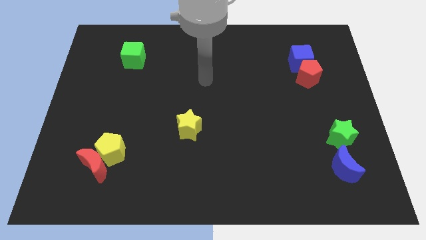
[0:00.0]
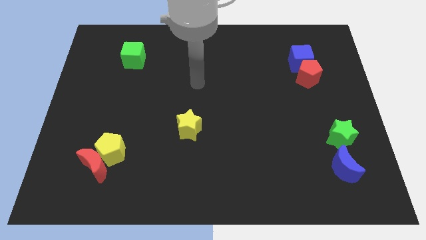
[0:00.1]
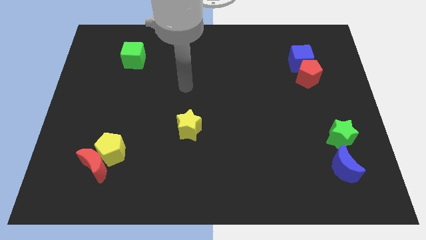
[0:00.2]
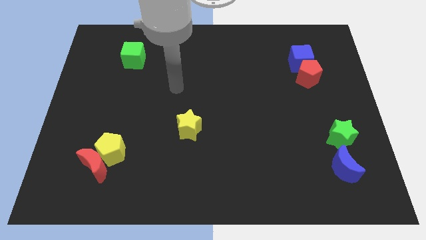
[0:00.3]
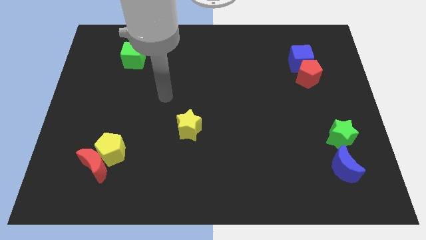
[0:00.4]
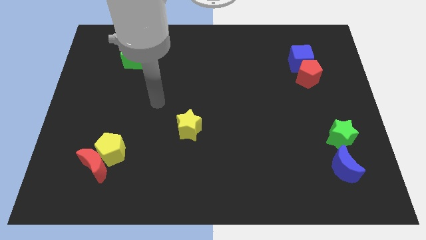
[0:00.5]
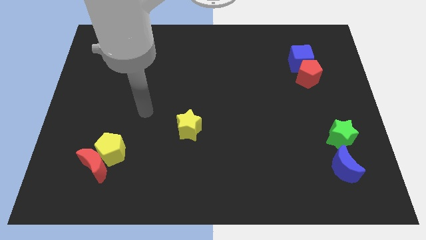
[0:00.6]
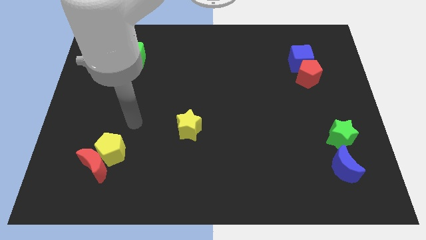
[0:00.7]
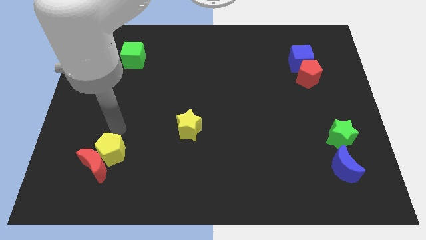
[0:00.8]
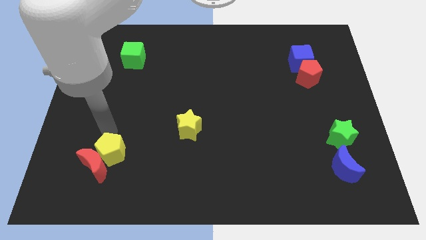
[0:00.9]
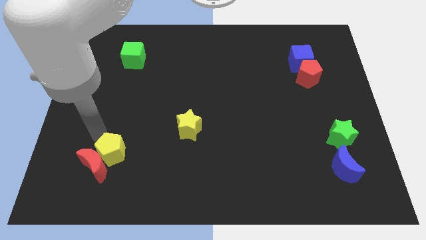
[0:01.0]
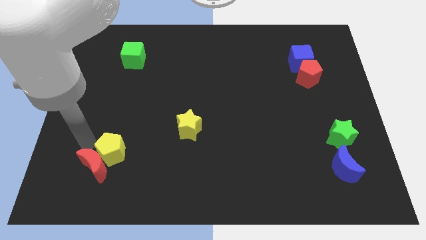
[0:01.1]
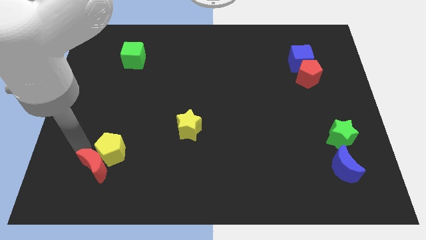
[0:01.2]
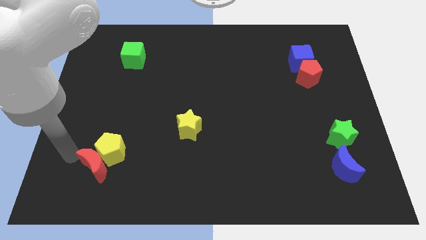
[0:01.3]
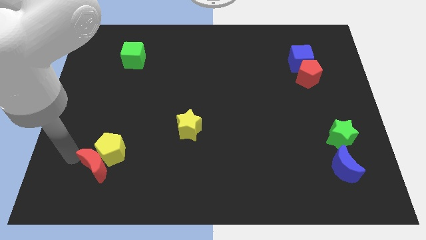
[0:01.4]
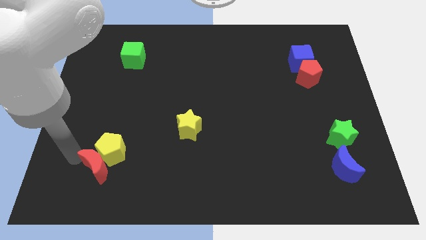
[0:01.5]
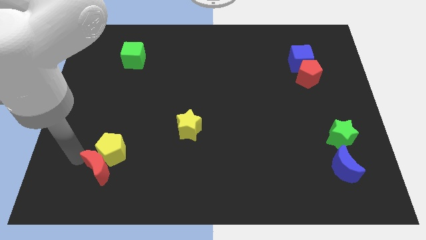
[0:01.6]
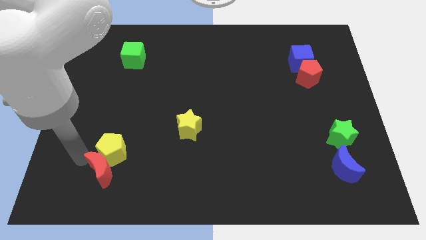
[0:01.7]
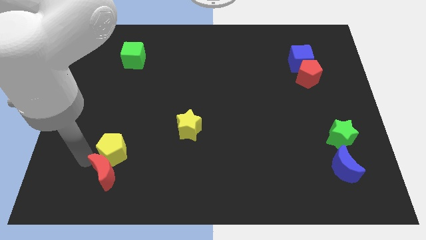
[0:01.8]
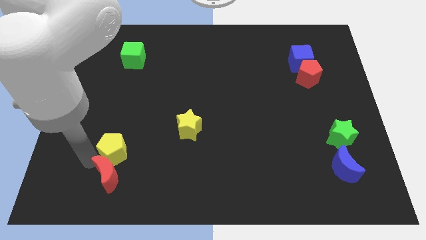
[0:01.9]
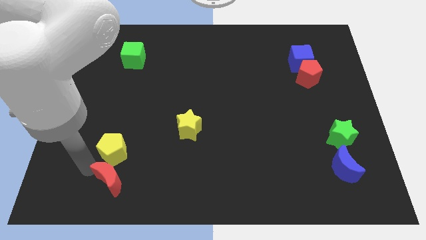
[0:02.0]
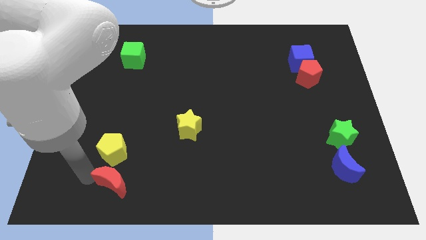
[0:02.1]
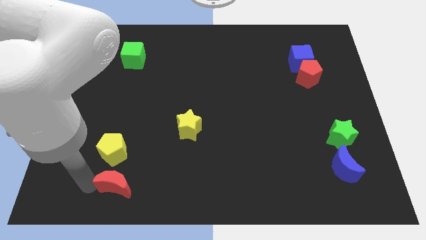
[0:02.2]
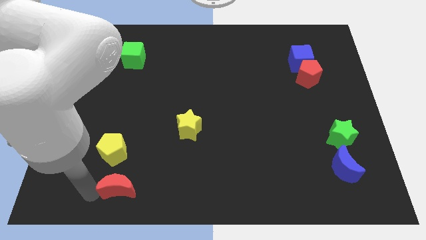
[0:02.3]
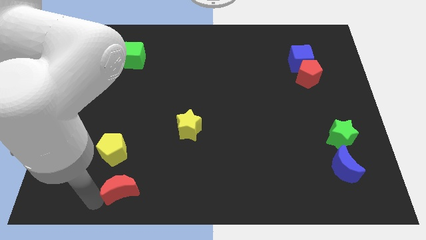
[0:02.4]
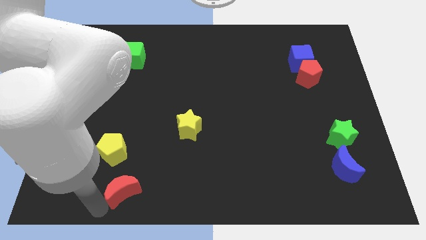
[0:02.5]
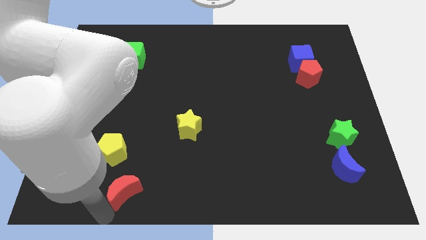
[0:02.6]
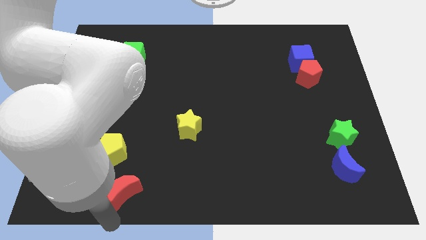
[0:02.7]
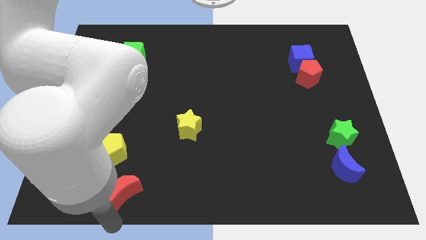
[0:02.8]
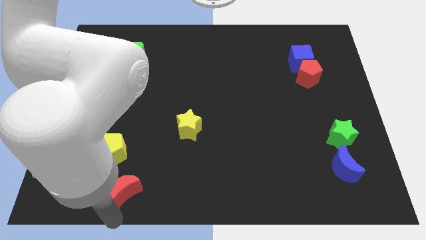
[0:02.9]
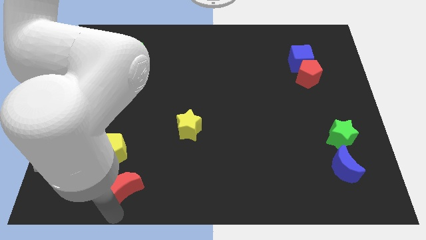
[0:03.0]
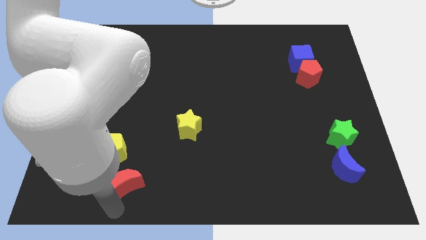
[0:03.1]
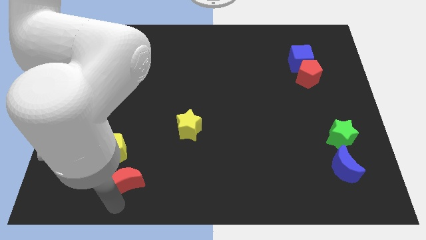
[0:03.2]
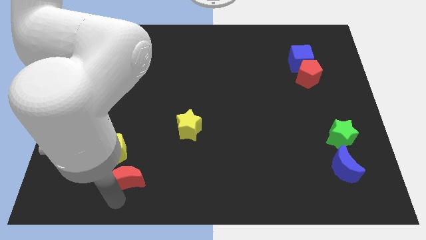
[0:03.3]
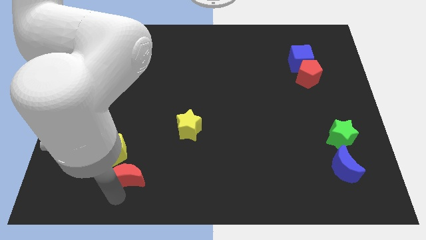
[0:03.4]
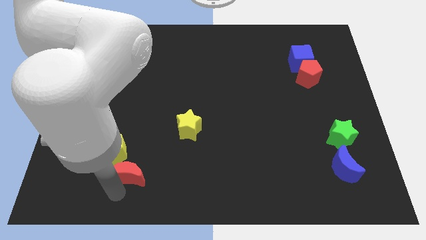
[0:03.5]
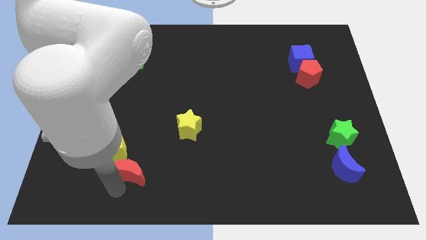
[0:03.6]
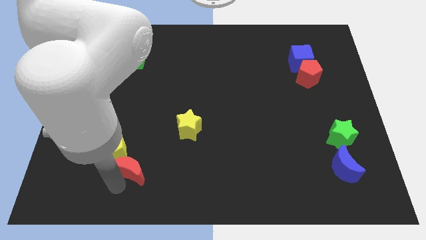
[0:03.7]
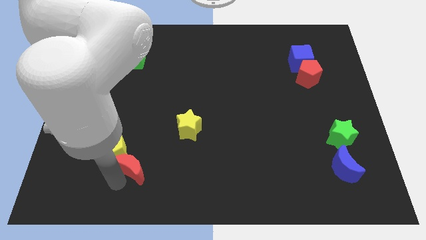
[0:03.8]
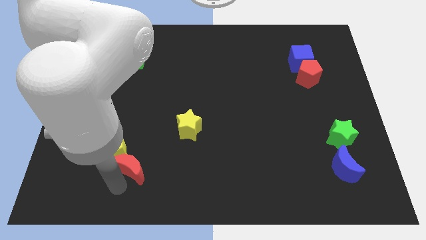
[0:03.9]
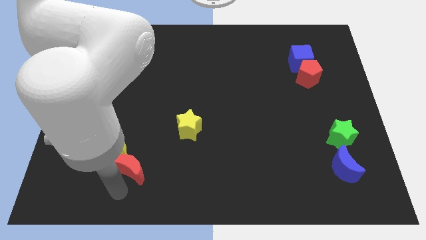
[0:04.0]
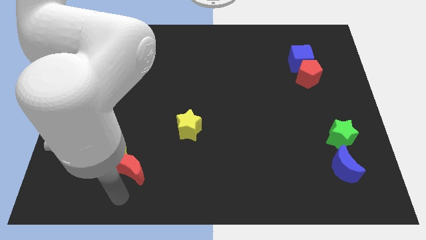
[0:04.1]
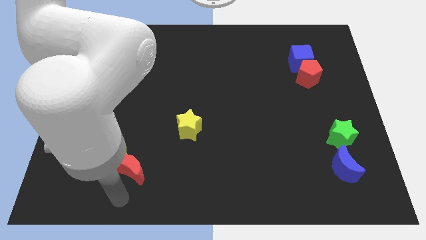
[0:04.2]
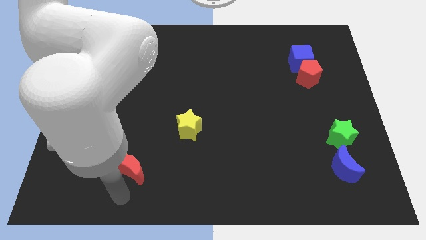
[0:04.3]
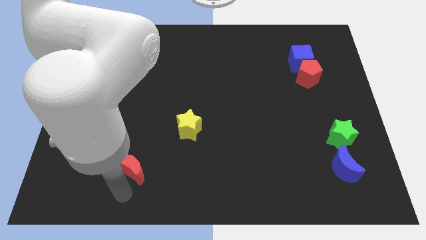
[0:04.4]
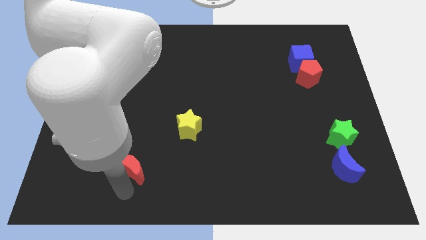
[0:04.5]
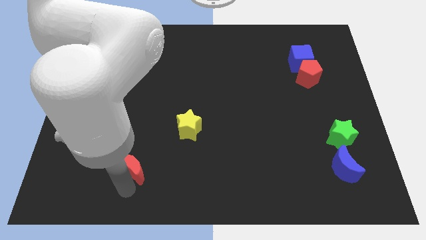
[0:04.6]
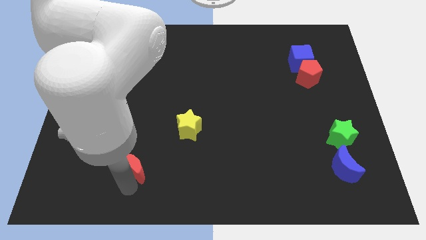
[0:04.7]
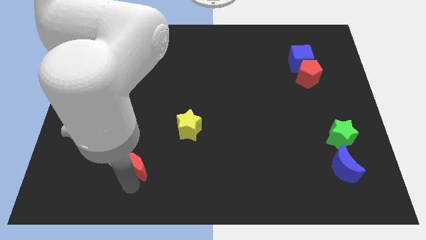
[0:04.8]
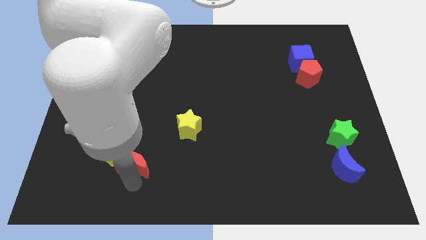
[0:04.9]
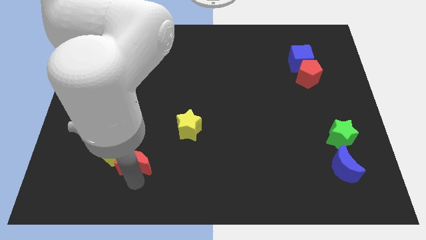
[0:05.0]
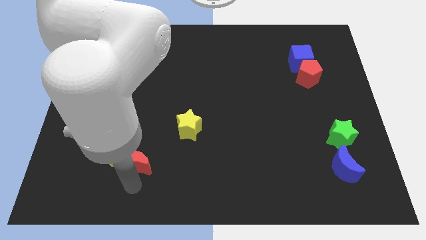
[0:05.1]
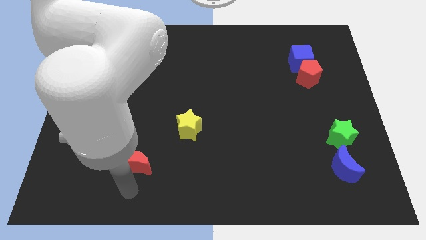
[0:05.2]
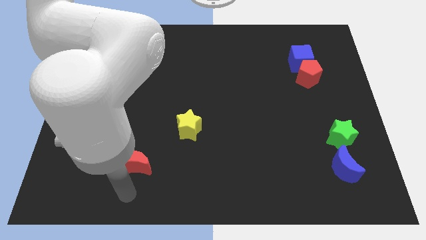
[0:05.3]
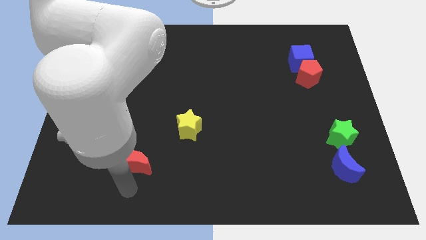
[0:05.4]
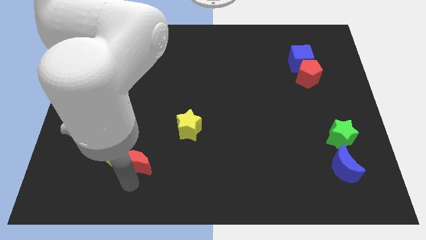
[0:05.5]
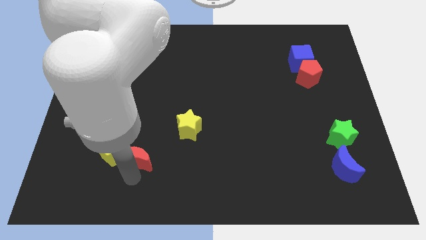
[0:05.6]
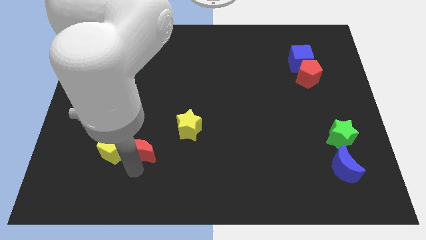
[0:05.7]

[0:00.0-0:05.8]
push the red moon to the top right of the yellow pentagon

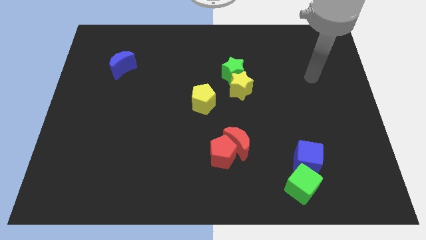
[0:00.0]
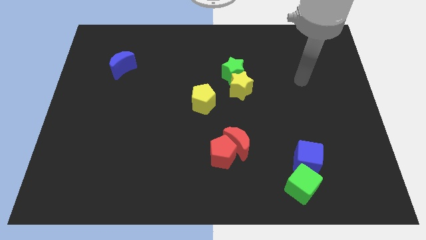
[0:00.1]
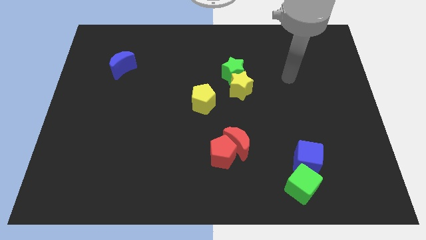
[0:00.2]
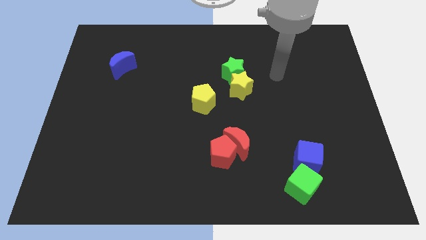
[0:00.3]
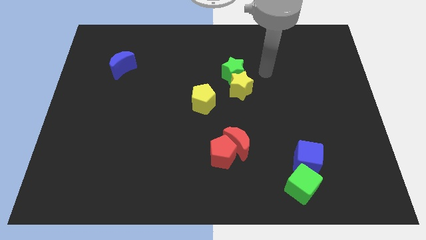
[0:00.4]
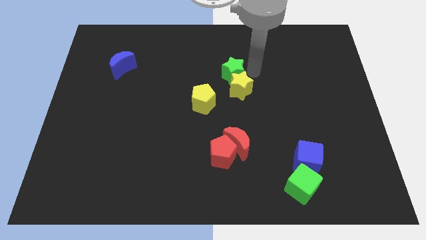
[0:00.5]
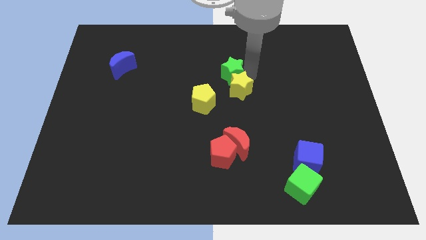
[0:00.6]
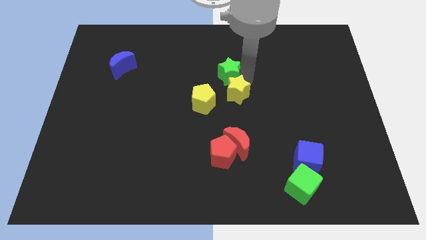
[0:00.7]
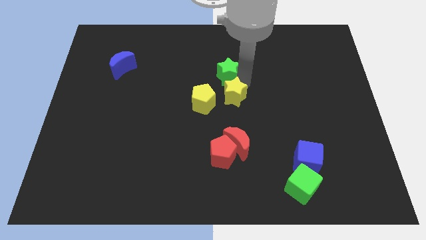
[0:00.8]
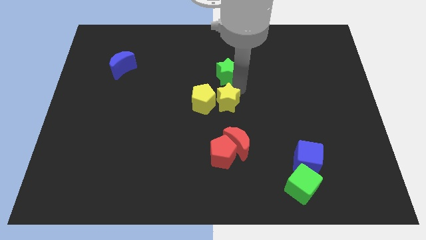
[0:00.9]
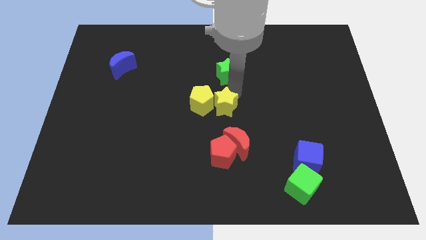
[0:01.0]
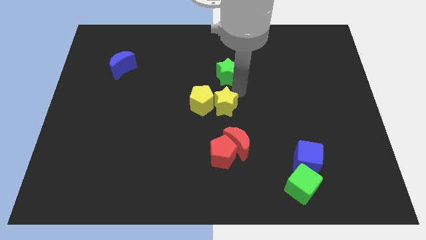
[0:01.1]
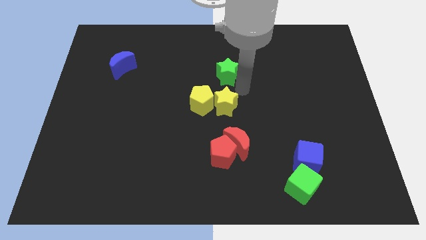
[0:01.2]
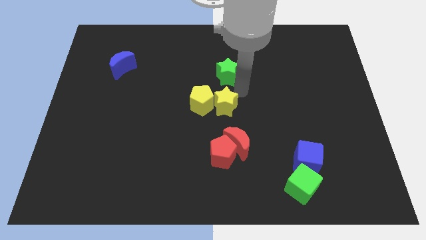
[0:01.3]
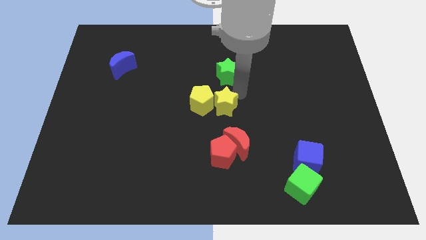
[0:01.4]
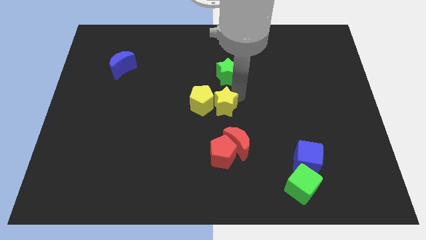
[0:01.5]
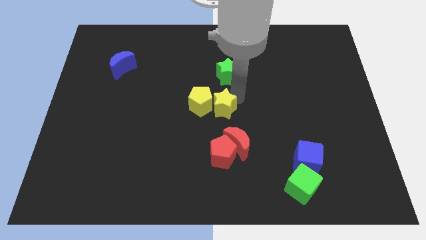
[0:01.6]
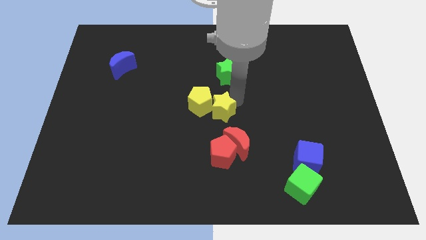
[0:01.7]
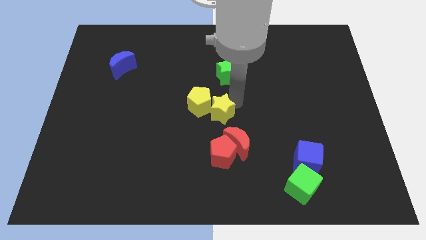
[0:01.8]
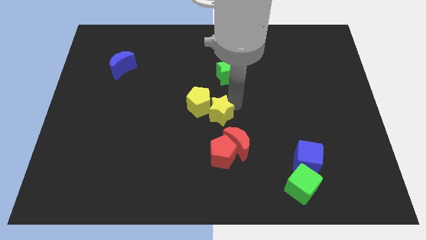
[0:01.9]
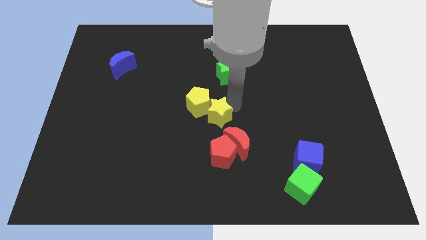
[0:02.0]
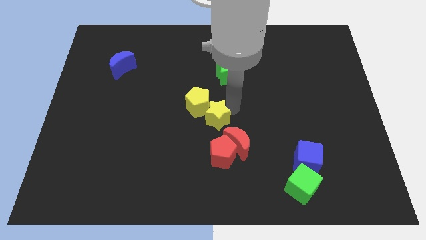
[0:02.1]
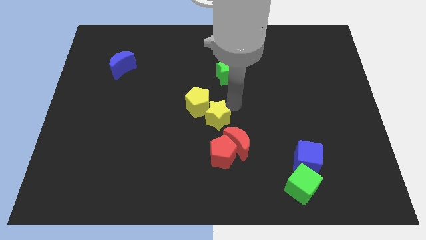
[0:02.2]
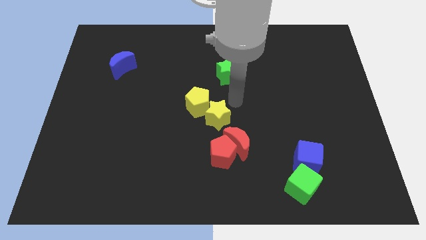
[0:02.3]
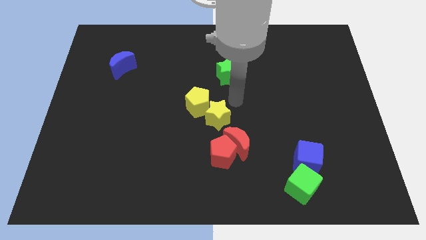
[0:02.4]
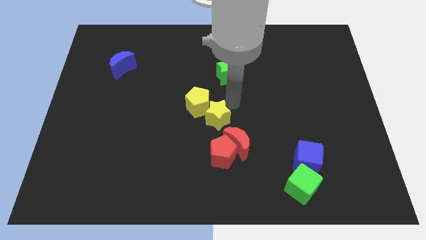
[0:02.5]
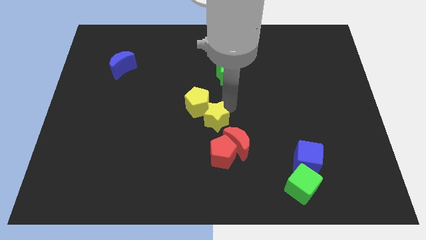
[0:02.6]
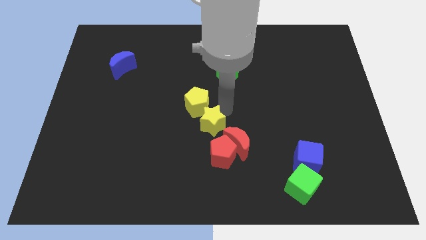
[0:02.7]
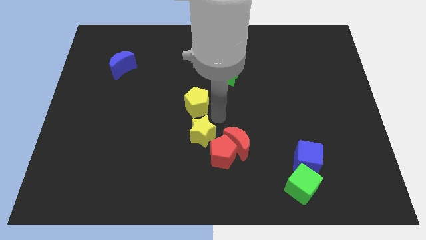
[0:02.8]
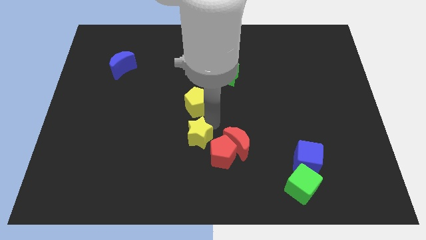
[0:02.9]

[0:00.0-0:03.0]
push the yellow star to the left of the red pentagon
